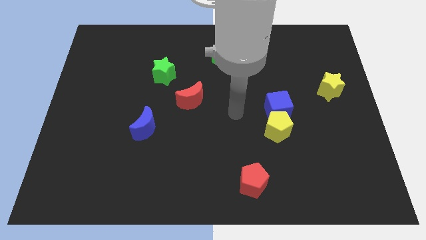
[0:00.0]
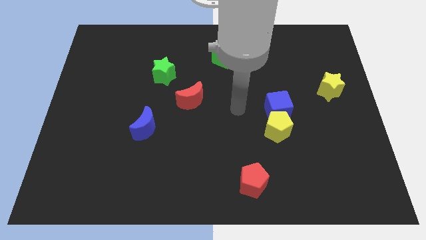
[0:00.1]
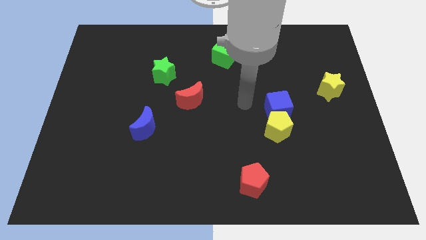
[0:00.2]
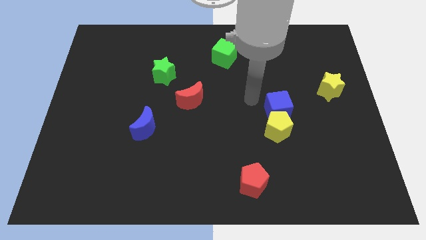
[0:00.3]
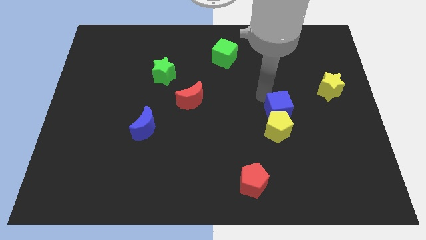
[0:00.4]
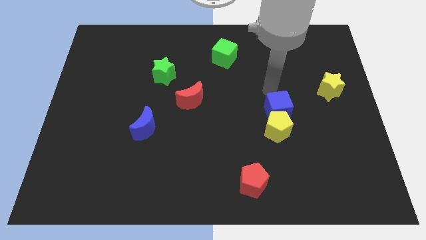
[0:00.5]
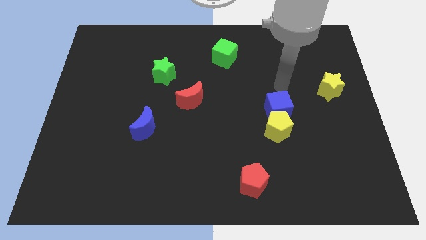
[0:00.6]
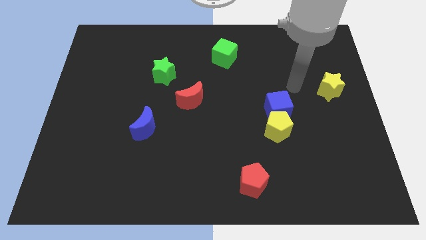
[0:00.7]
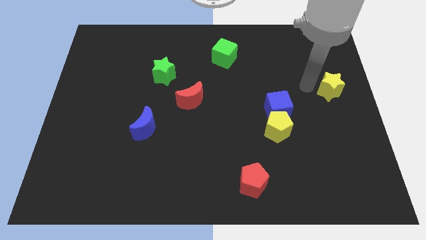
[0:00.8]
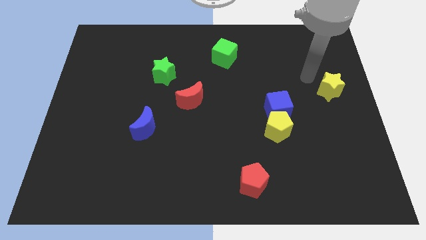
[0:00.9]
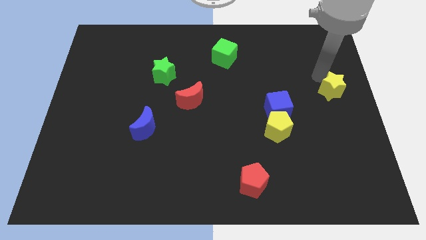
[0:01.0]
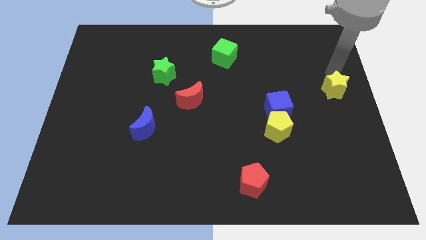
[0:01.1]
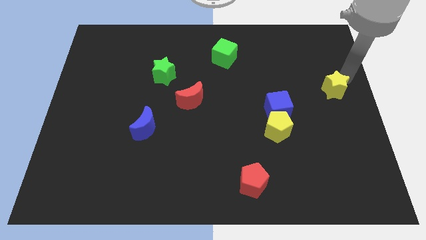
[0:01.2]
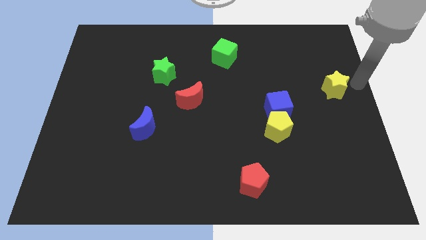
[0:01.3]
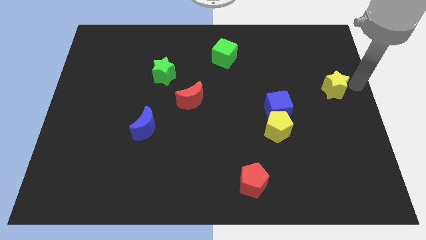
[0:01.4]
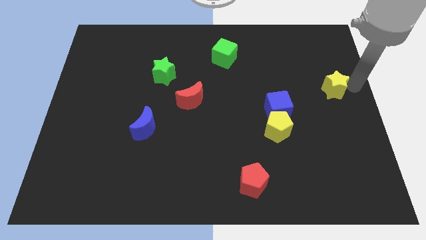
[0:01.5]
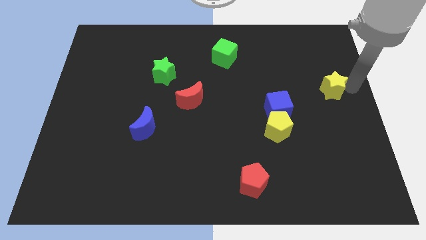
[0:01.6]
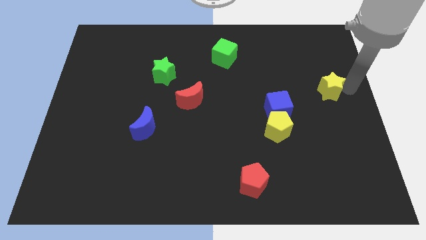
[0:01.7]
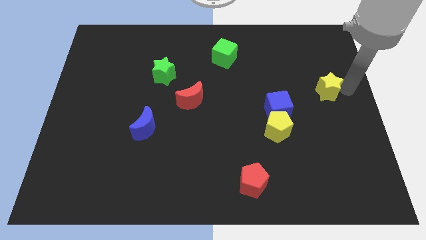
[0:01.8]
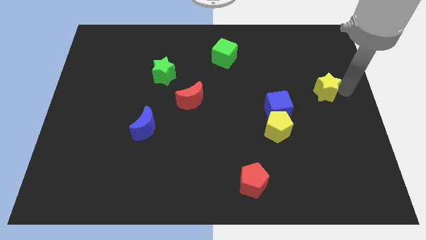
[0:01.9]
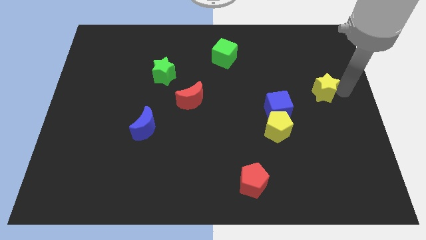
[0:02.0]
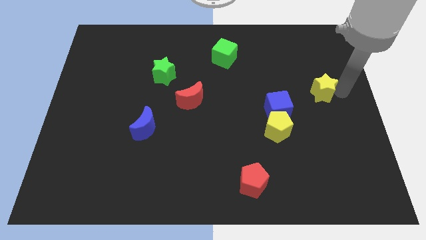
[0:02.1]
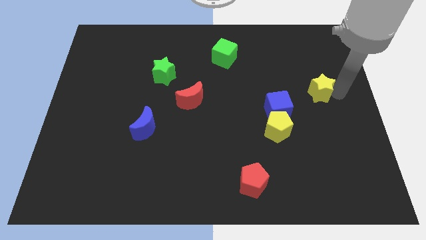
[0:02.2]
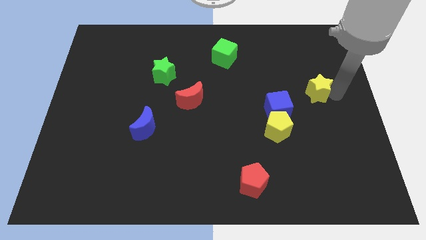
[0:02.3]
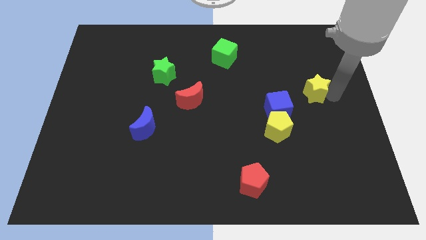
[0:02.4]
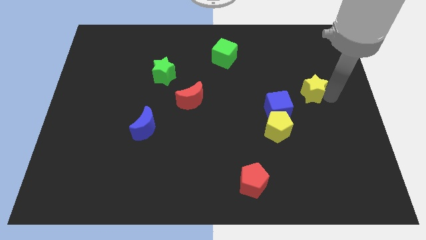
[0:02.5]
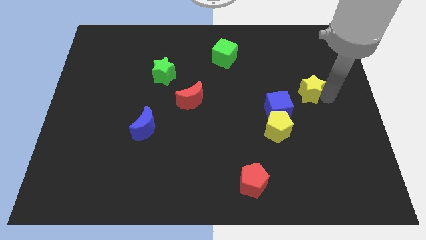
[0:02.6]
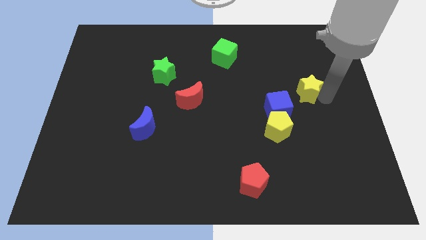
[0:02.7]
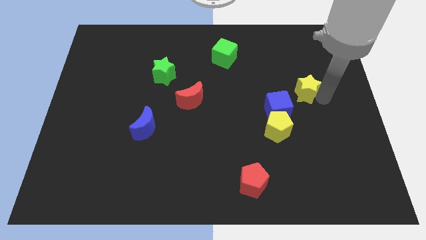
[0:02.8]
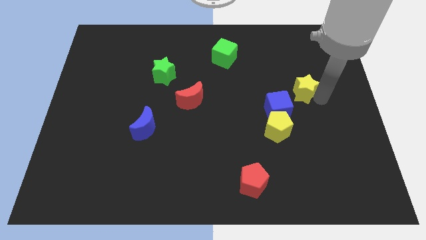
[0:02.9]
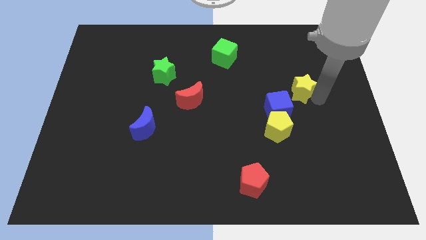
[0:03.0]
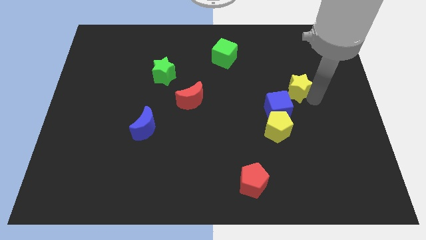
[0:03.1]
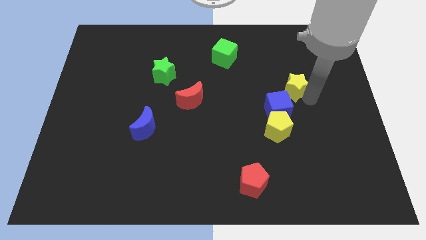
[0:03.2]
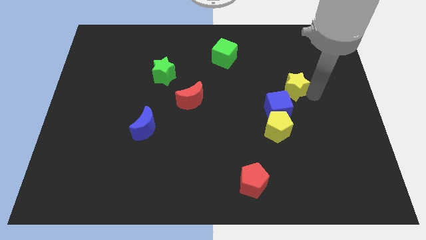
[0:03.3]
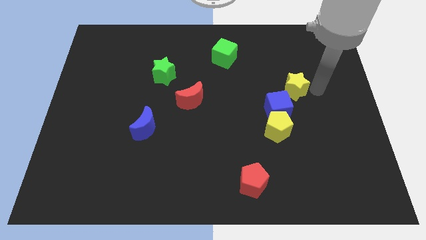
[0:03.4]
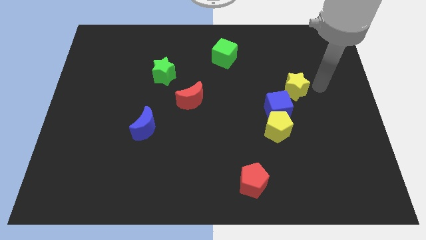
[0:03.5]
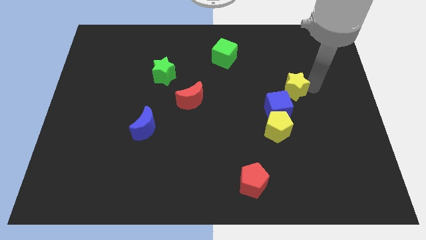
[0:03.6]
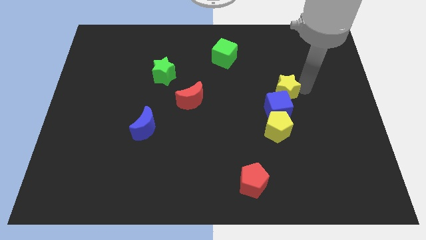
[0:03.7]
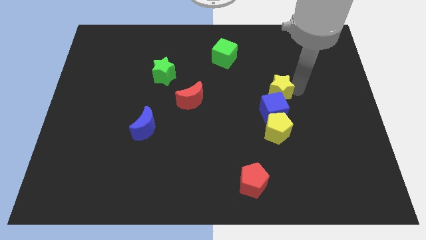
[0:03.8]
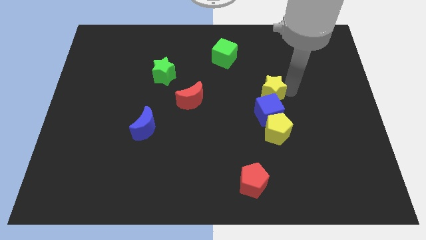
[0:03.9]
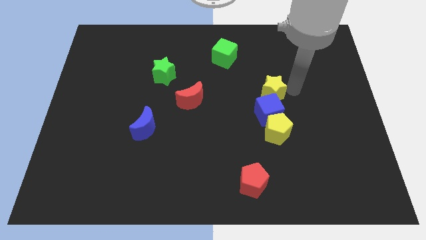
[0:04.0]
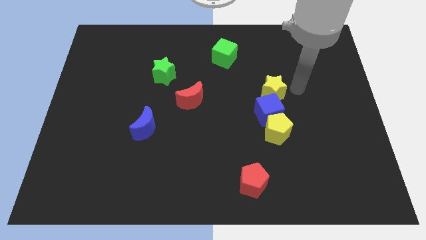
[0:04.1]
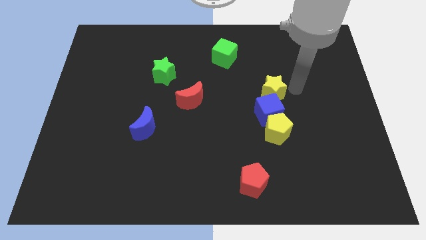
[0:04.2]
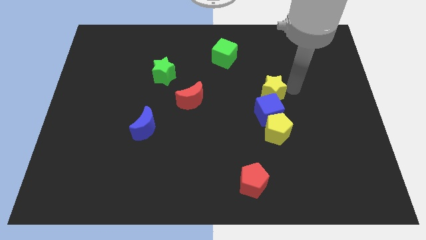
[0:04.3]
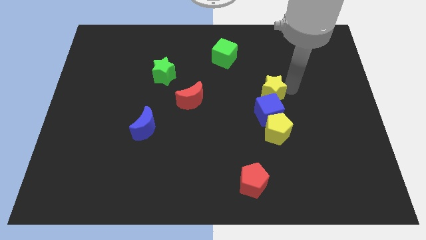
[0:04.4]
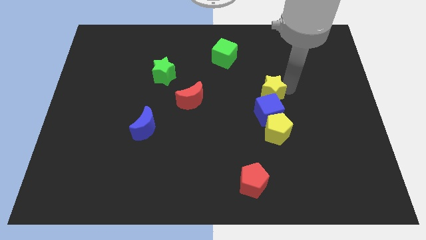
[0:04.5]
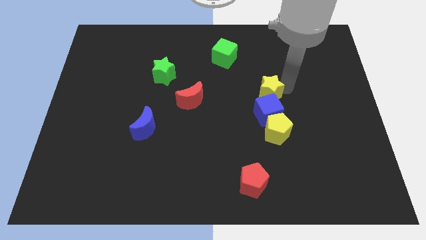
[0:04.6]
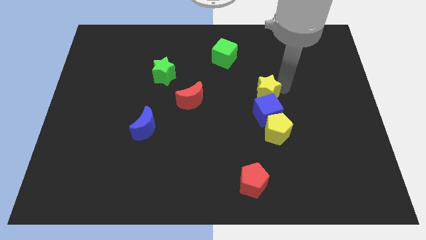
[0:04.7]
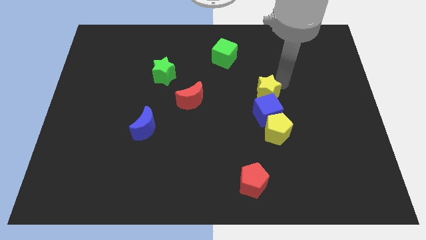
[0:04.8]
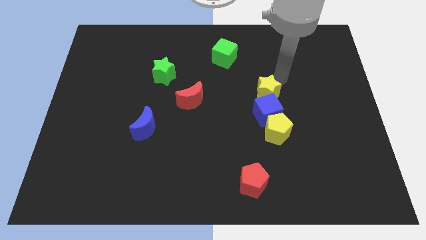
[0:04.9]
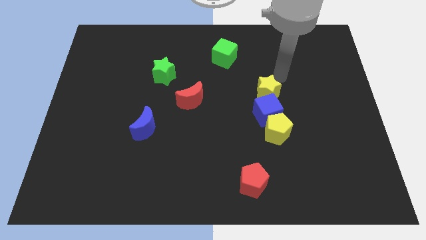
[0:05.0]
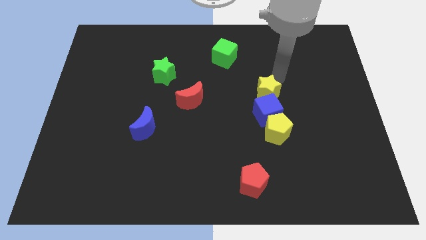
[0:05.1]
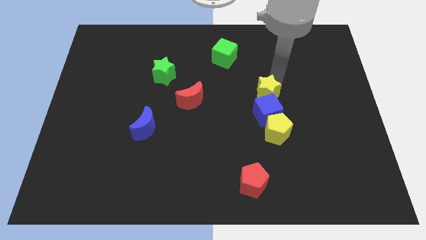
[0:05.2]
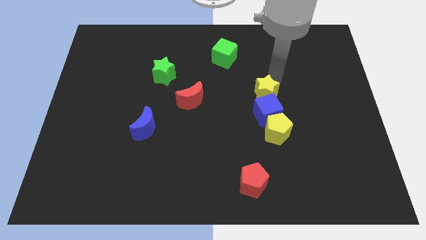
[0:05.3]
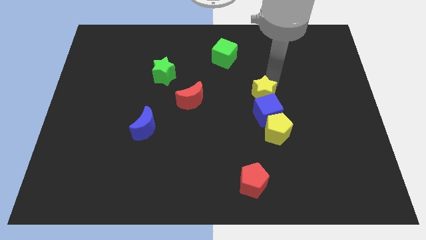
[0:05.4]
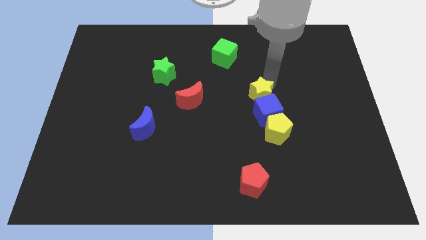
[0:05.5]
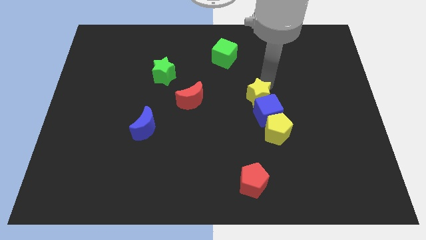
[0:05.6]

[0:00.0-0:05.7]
put the yellow star to the top left of the yellow pentagon

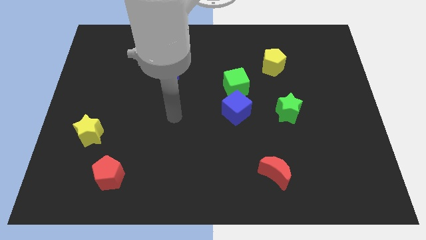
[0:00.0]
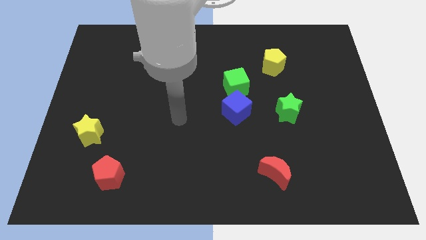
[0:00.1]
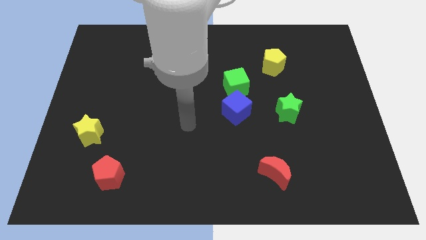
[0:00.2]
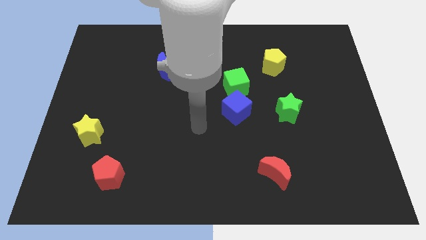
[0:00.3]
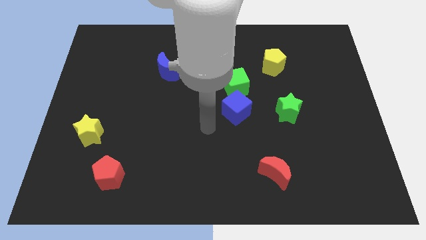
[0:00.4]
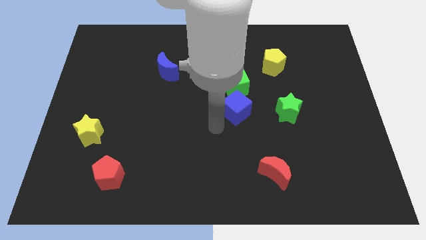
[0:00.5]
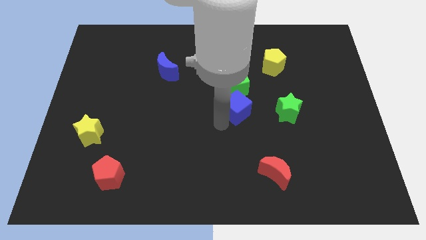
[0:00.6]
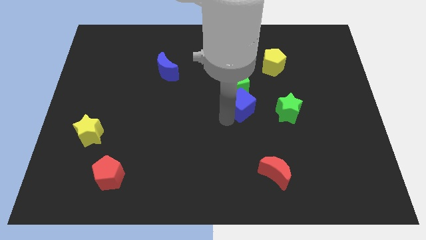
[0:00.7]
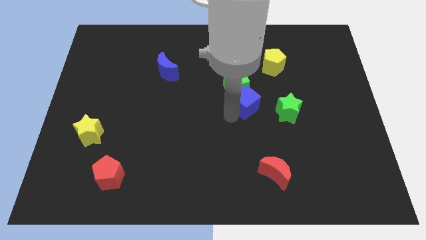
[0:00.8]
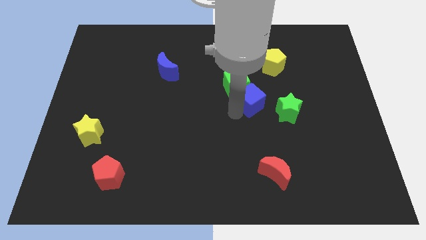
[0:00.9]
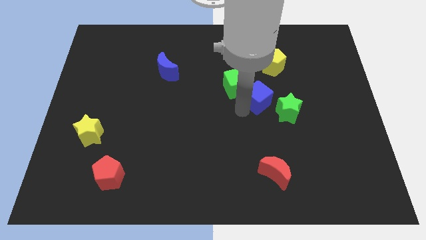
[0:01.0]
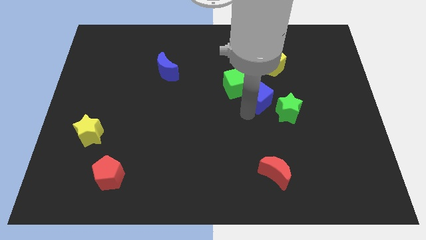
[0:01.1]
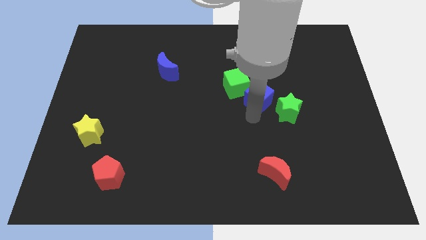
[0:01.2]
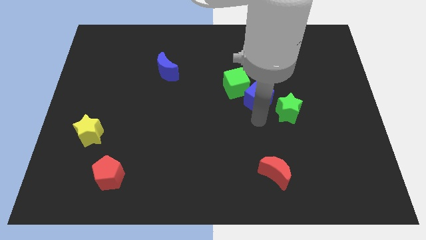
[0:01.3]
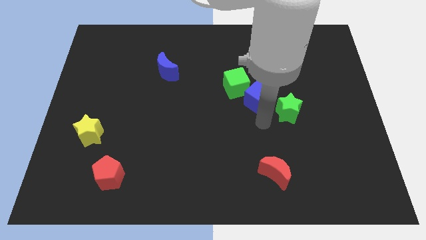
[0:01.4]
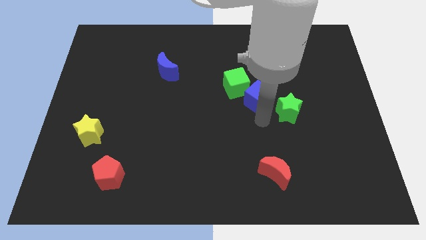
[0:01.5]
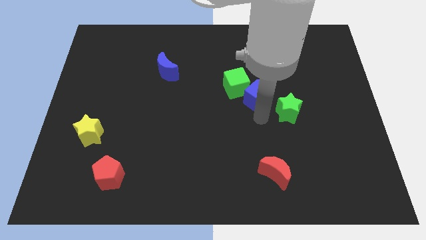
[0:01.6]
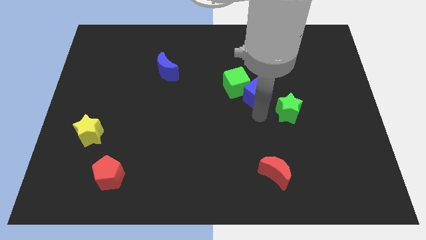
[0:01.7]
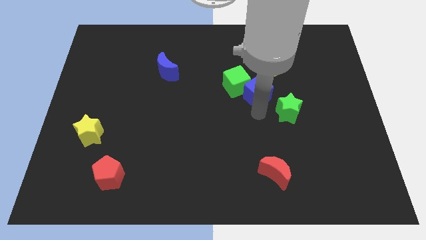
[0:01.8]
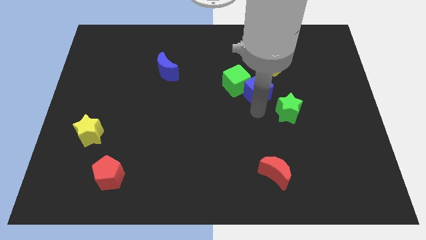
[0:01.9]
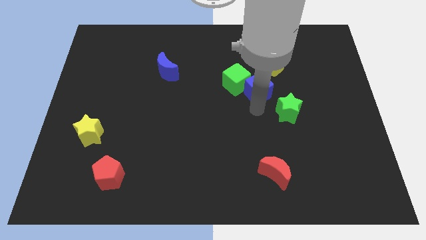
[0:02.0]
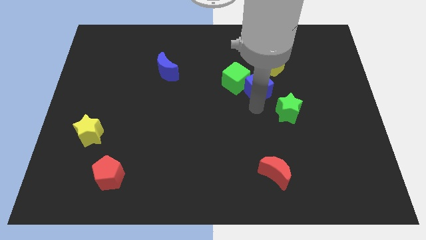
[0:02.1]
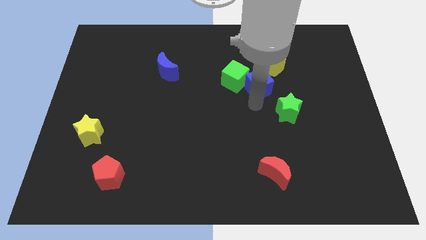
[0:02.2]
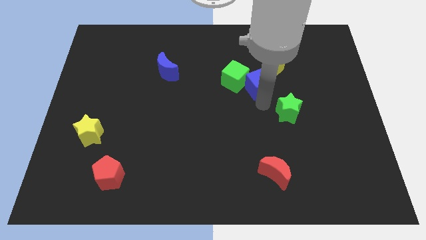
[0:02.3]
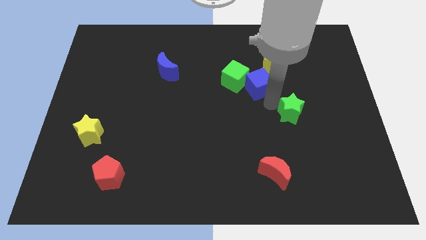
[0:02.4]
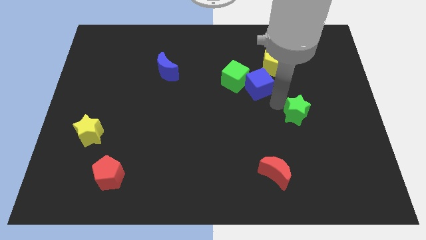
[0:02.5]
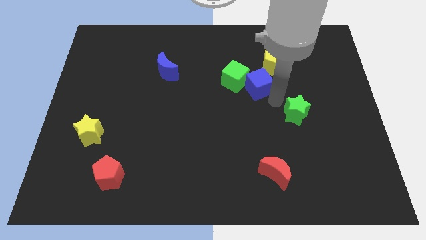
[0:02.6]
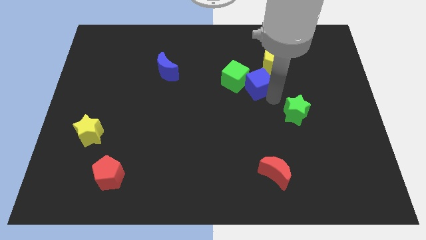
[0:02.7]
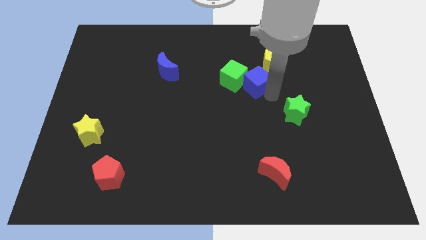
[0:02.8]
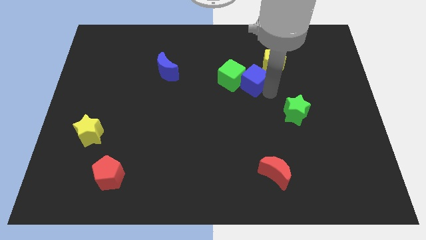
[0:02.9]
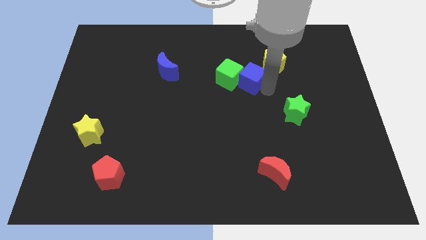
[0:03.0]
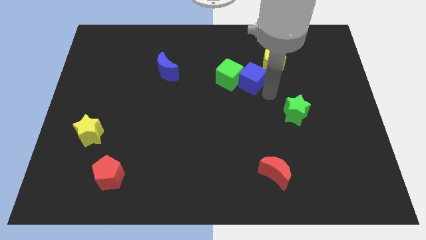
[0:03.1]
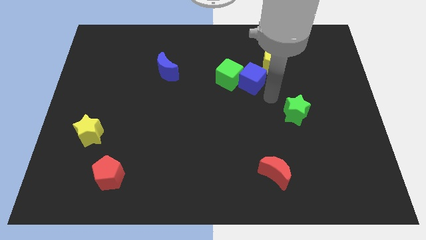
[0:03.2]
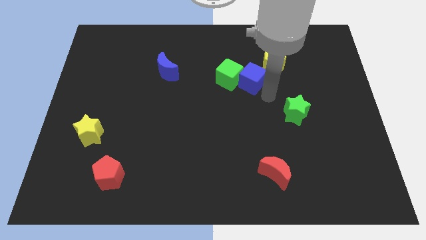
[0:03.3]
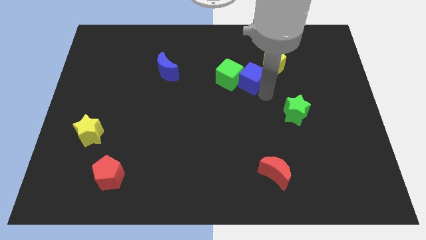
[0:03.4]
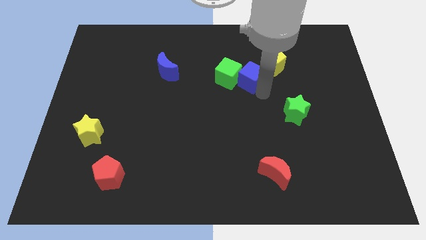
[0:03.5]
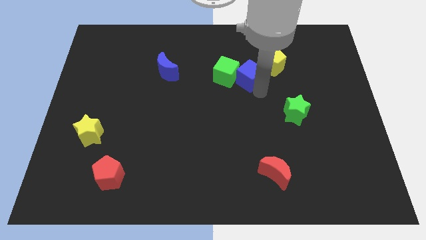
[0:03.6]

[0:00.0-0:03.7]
put the blue cube to the left of the yellow pentagon
